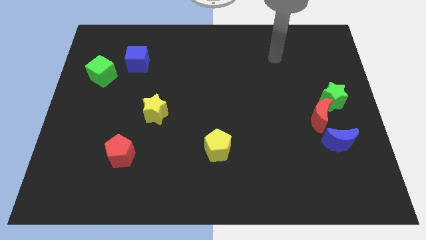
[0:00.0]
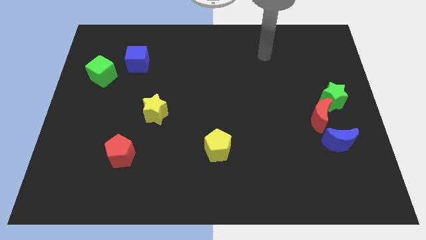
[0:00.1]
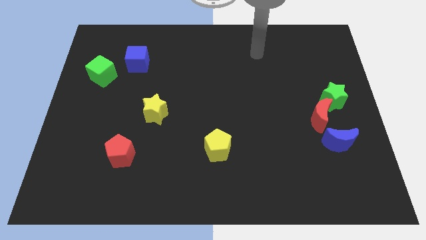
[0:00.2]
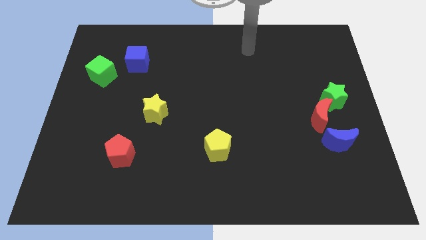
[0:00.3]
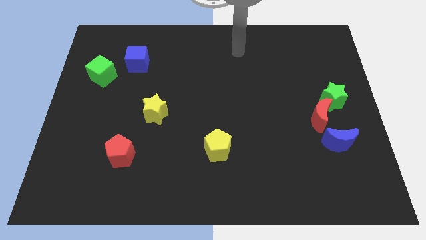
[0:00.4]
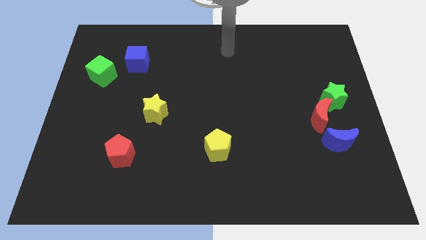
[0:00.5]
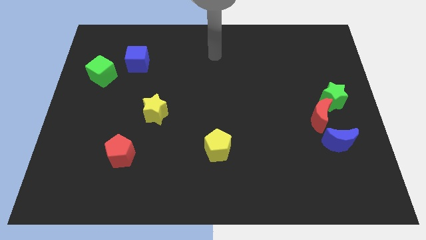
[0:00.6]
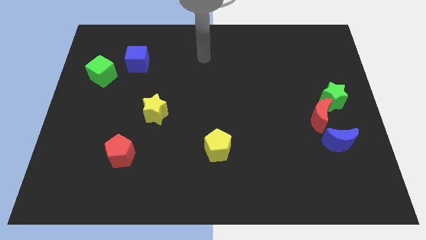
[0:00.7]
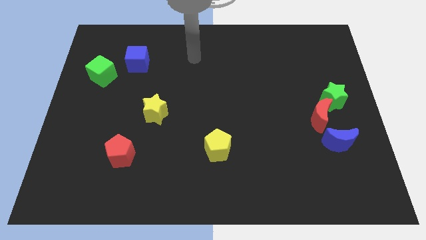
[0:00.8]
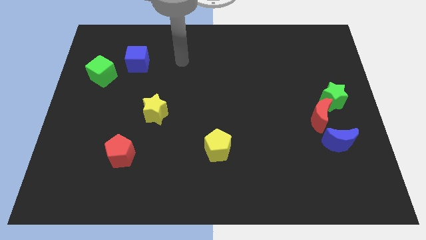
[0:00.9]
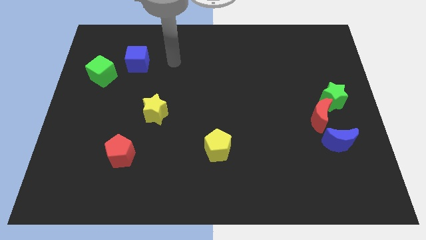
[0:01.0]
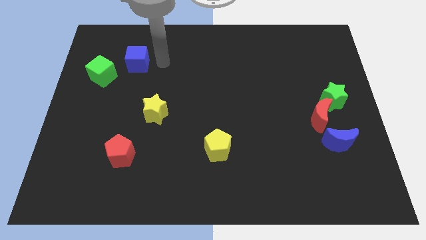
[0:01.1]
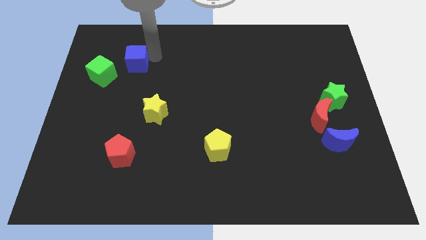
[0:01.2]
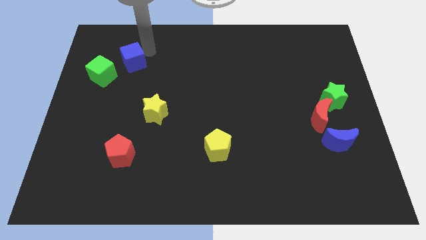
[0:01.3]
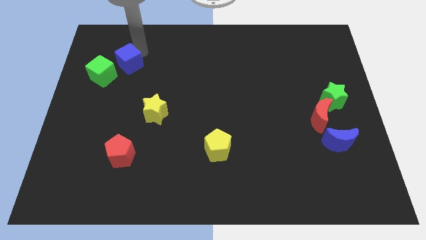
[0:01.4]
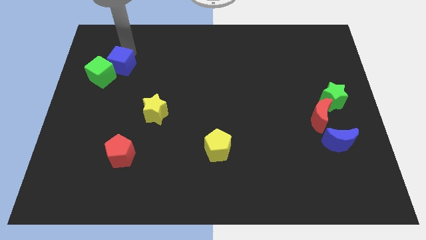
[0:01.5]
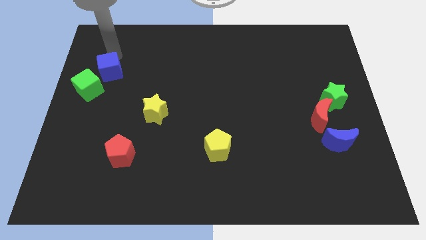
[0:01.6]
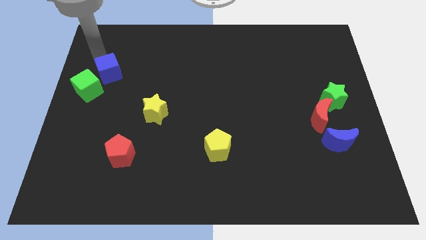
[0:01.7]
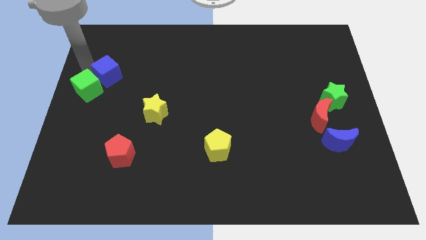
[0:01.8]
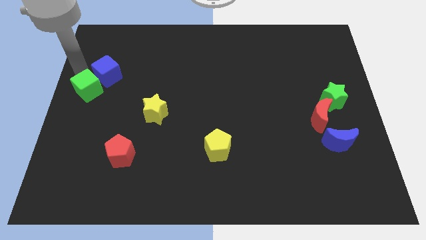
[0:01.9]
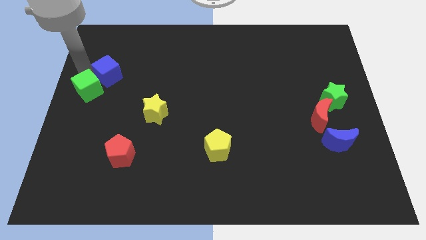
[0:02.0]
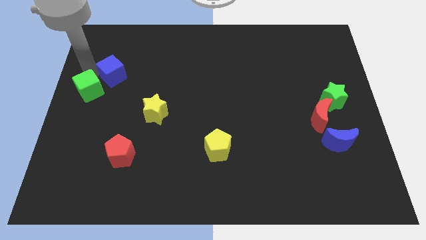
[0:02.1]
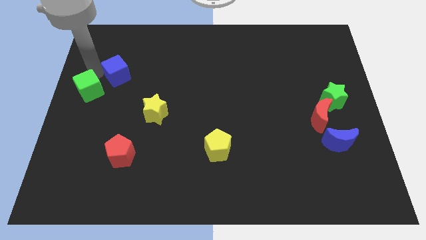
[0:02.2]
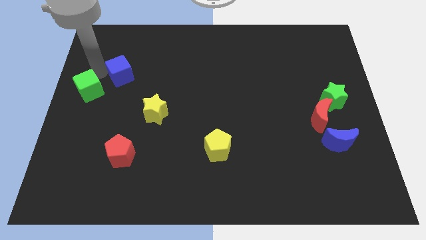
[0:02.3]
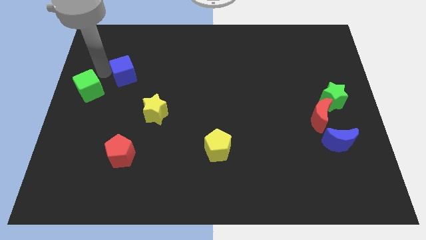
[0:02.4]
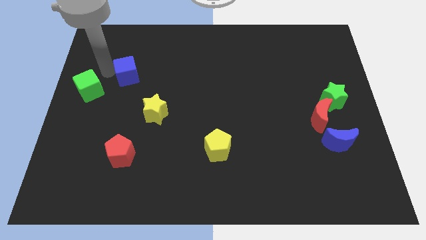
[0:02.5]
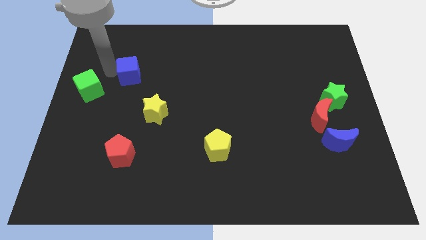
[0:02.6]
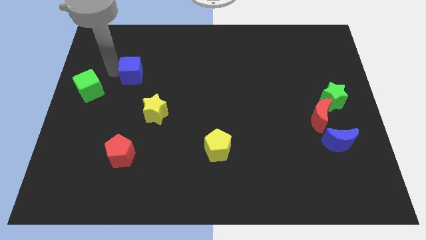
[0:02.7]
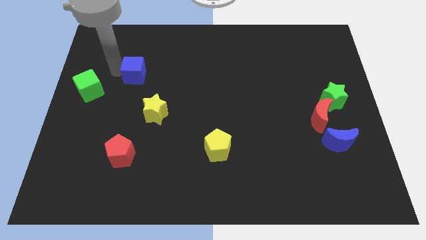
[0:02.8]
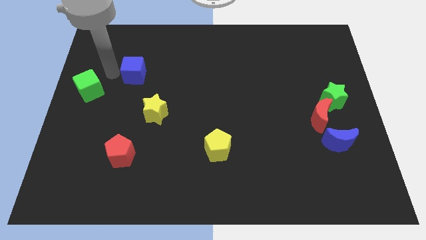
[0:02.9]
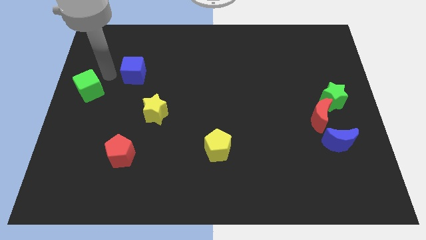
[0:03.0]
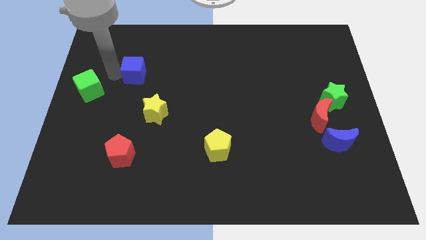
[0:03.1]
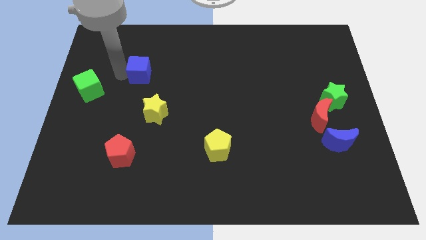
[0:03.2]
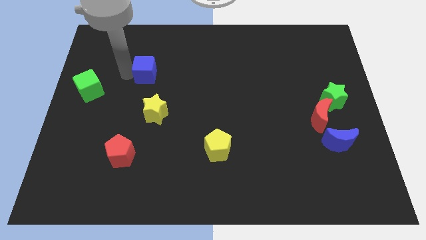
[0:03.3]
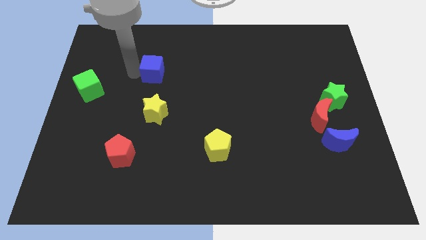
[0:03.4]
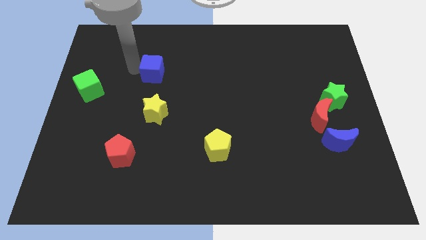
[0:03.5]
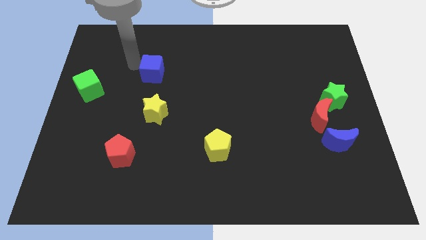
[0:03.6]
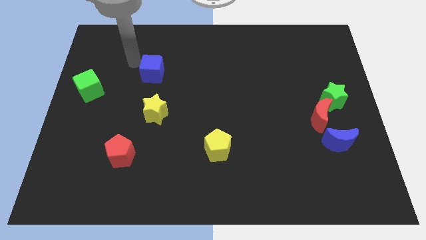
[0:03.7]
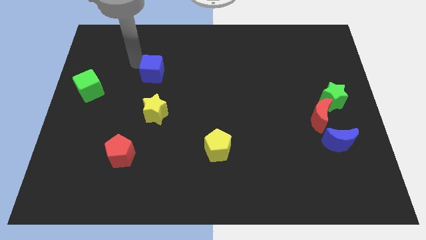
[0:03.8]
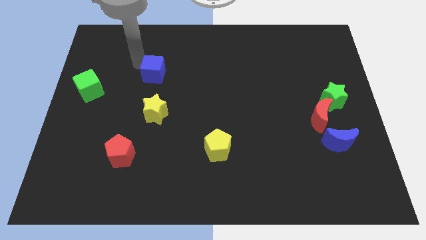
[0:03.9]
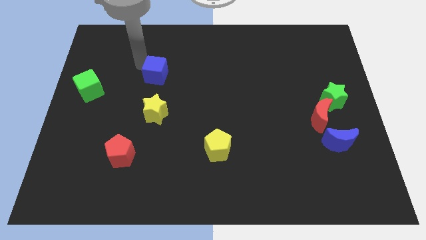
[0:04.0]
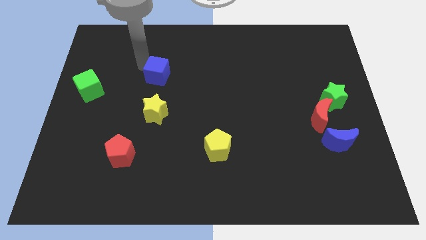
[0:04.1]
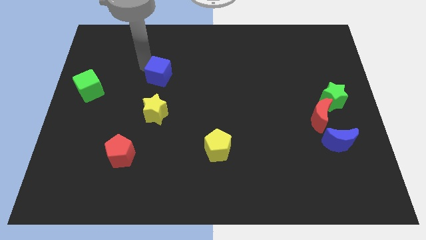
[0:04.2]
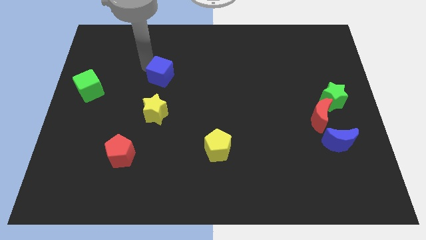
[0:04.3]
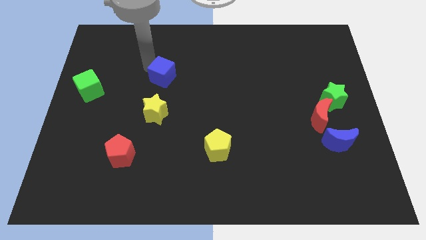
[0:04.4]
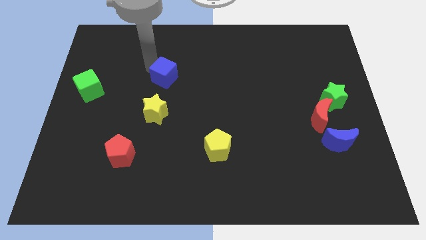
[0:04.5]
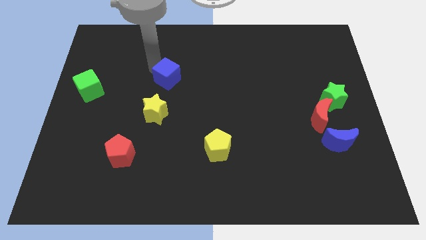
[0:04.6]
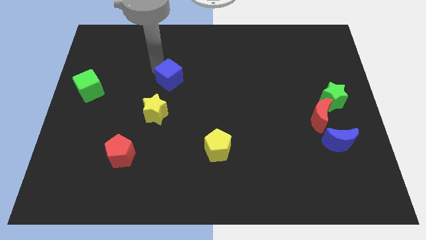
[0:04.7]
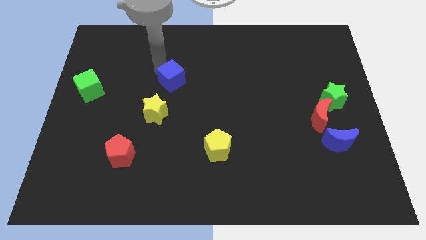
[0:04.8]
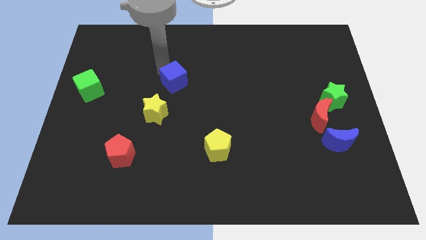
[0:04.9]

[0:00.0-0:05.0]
slide the blue cube diagonally up and to the right of the yellow star

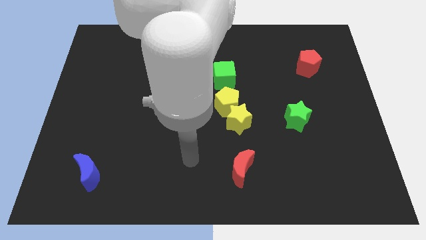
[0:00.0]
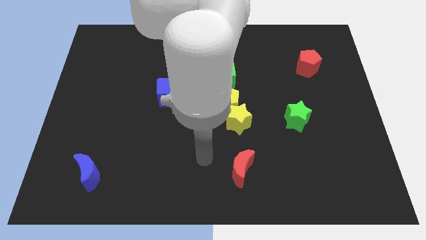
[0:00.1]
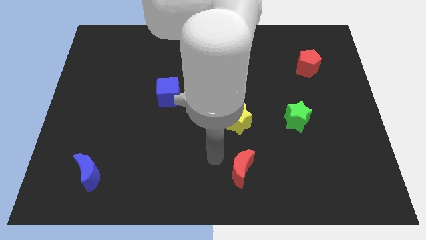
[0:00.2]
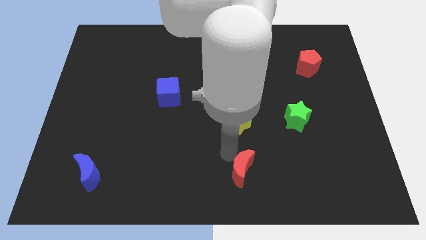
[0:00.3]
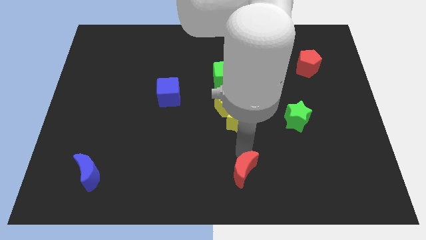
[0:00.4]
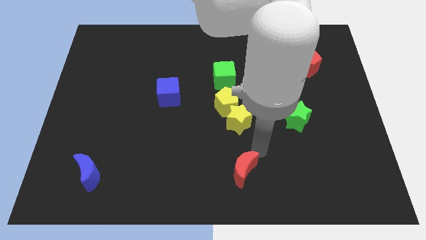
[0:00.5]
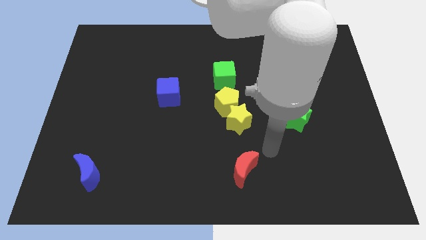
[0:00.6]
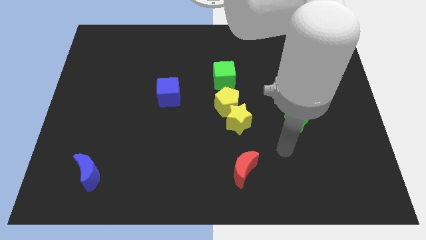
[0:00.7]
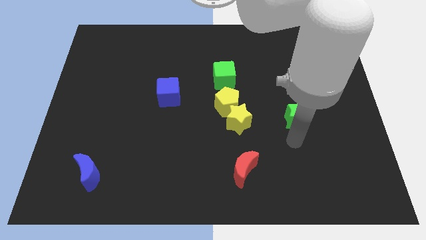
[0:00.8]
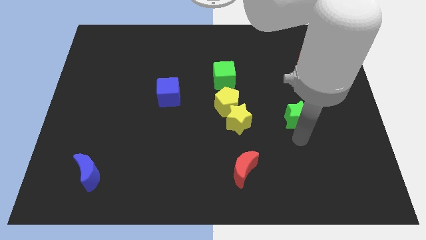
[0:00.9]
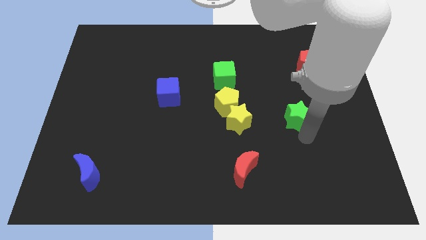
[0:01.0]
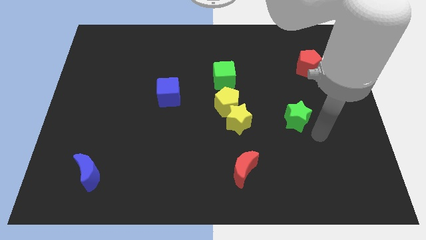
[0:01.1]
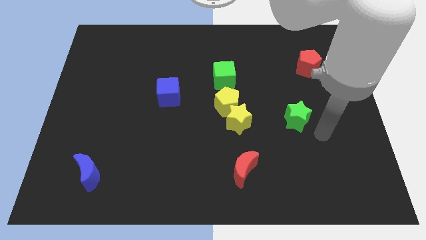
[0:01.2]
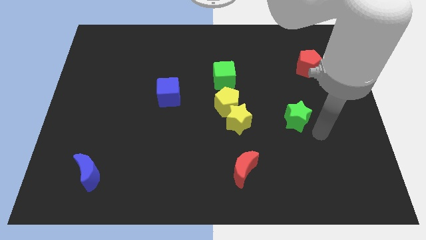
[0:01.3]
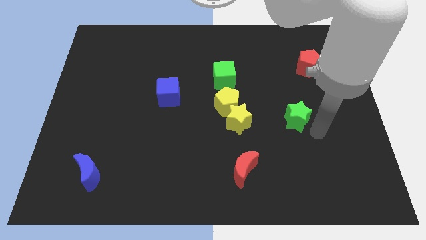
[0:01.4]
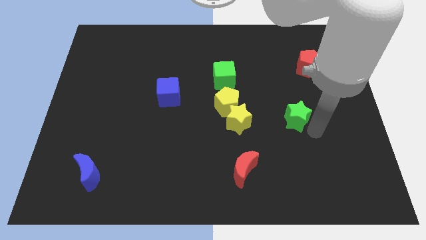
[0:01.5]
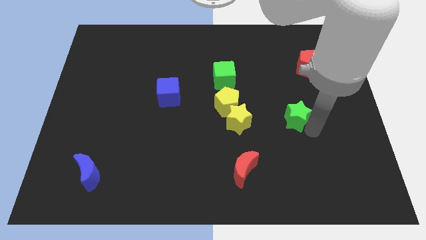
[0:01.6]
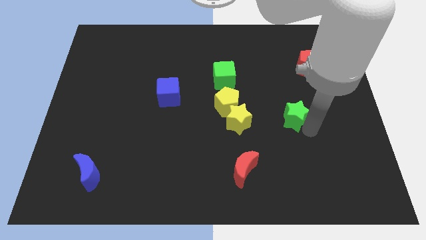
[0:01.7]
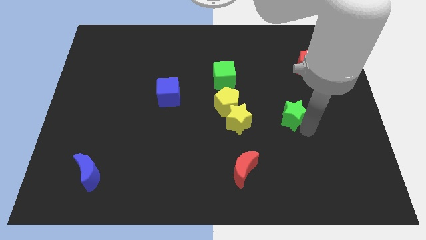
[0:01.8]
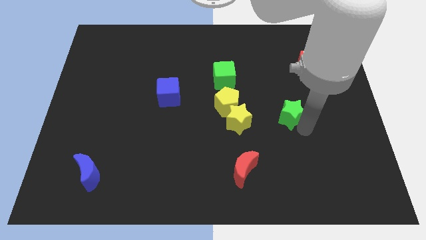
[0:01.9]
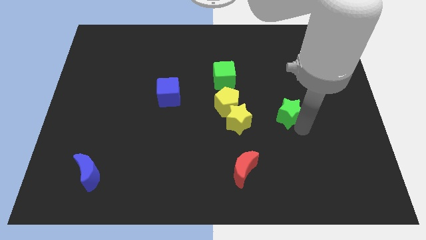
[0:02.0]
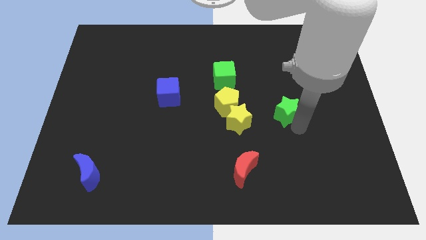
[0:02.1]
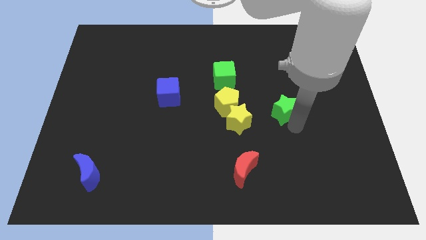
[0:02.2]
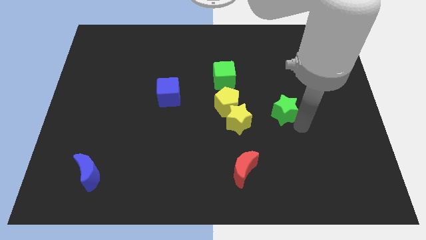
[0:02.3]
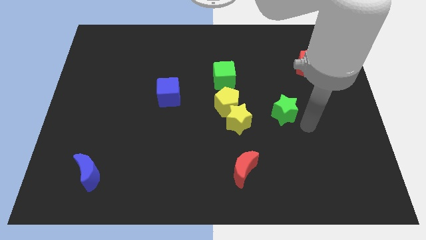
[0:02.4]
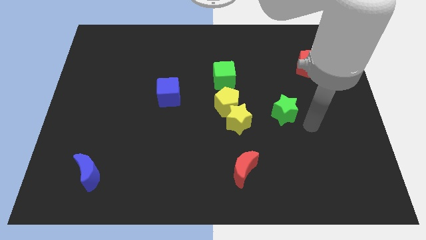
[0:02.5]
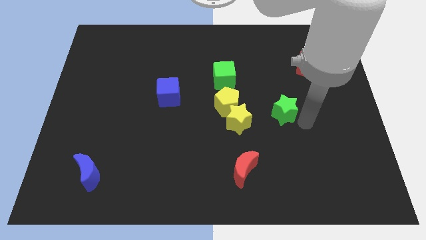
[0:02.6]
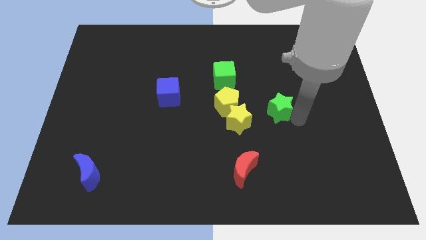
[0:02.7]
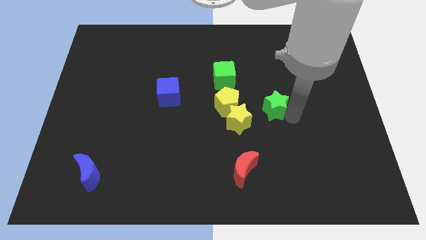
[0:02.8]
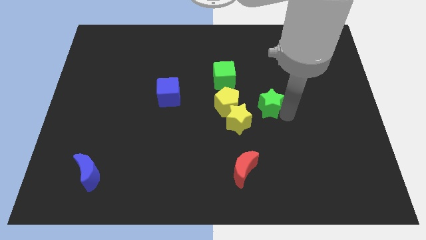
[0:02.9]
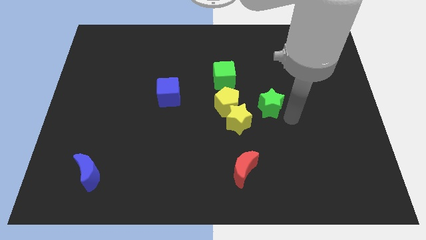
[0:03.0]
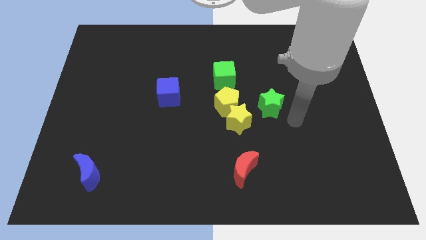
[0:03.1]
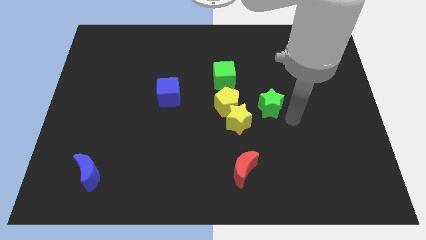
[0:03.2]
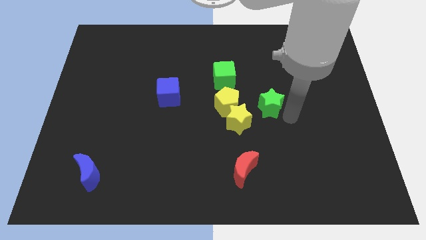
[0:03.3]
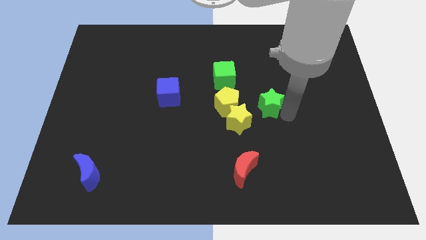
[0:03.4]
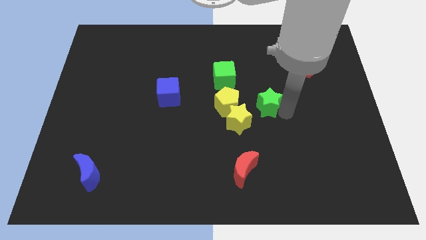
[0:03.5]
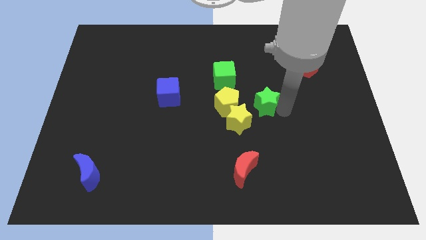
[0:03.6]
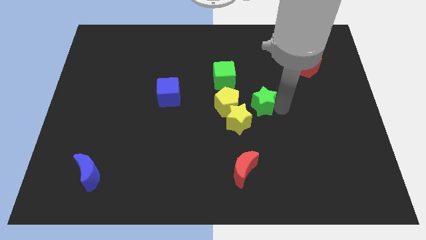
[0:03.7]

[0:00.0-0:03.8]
put the green star to the bottom right of the green cube
